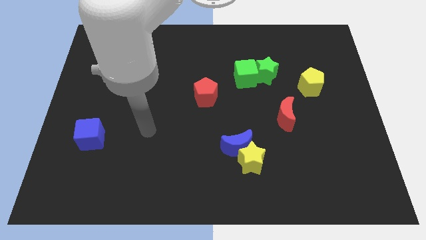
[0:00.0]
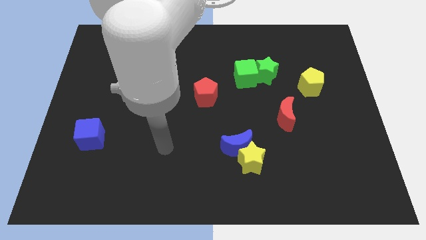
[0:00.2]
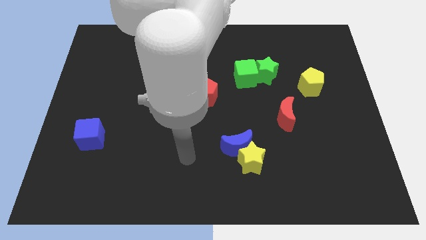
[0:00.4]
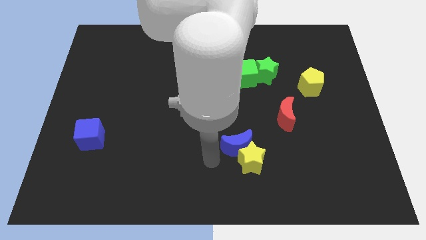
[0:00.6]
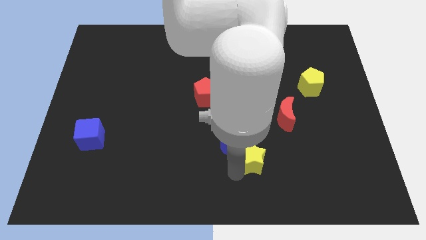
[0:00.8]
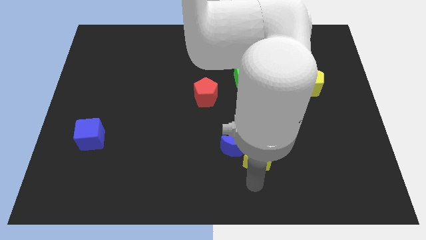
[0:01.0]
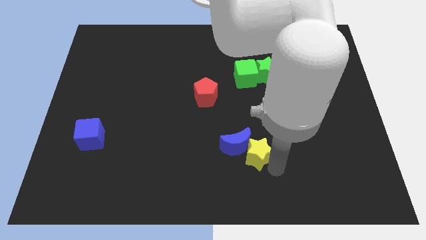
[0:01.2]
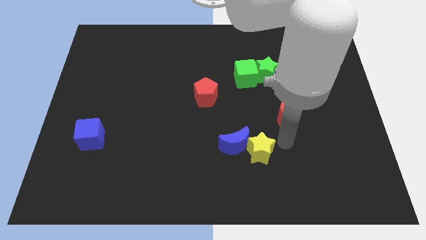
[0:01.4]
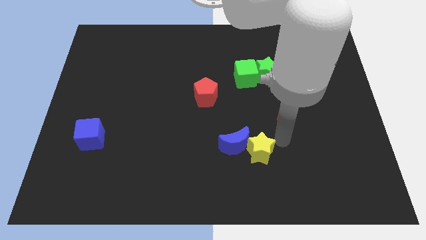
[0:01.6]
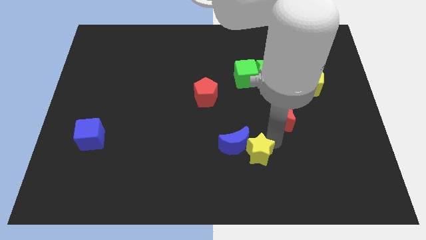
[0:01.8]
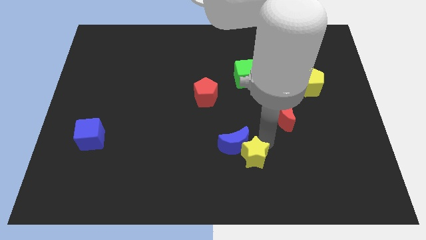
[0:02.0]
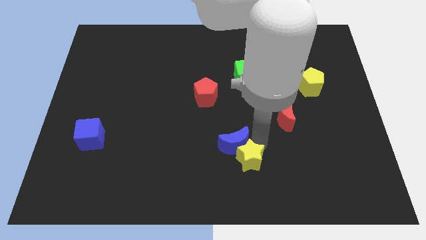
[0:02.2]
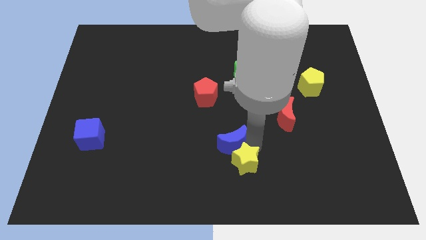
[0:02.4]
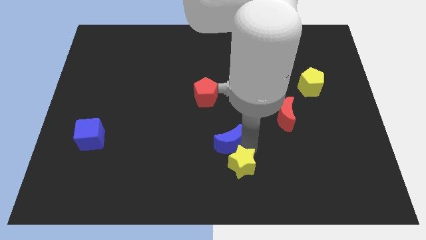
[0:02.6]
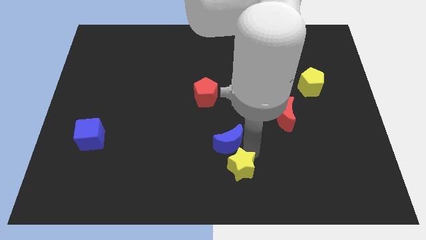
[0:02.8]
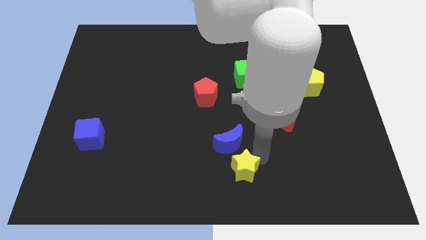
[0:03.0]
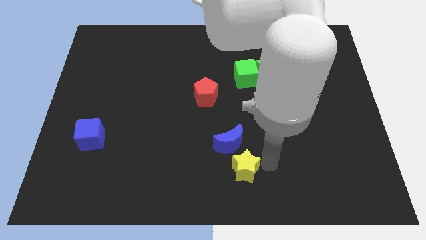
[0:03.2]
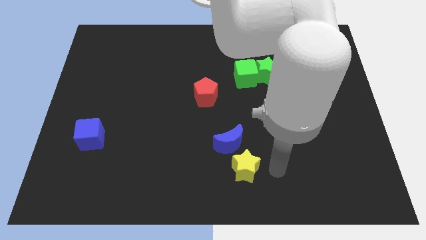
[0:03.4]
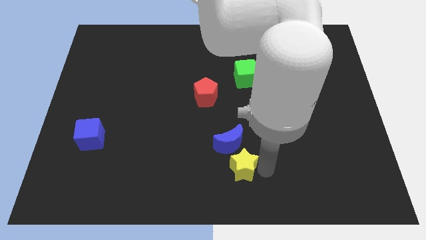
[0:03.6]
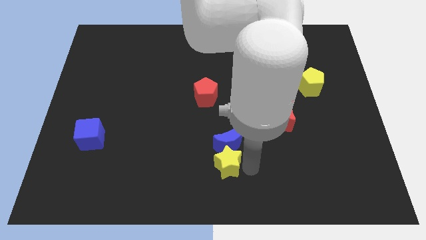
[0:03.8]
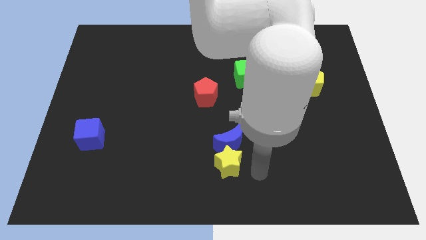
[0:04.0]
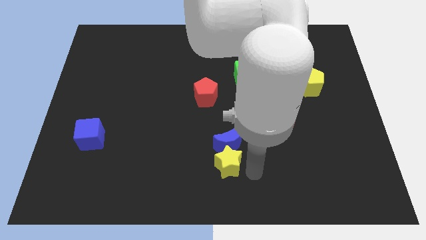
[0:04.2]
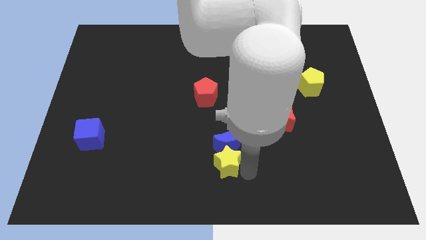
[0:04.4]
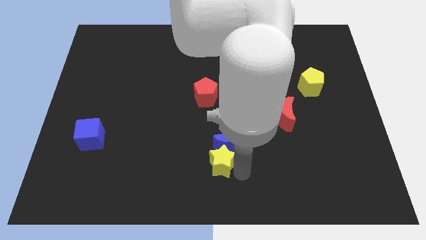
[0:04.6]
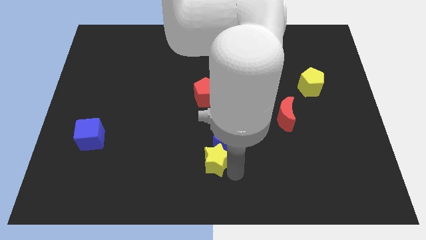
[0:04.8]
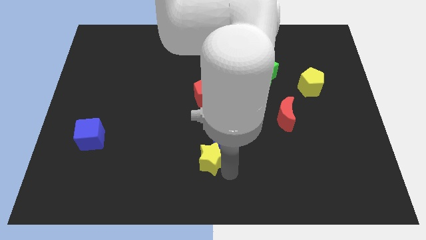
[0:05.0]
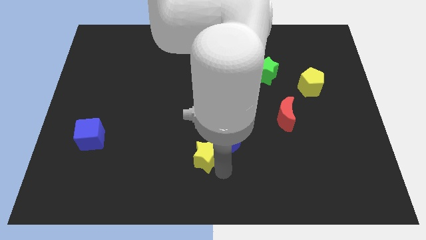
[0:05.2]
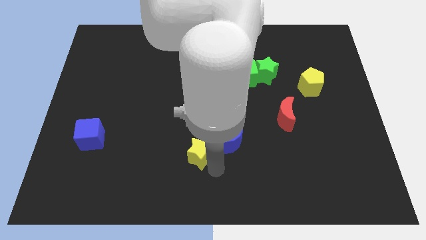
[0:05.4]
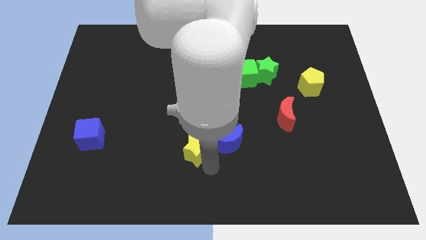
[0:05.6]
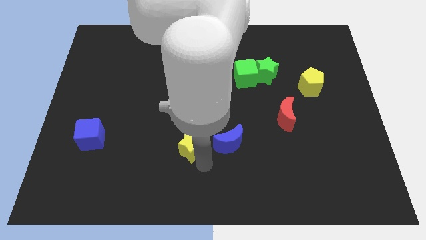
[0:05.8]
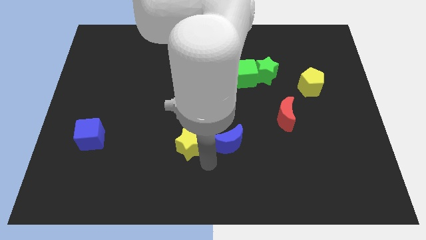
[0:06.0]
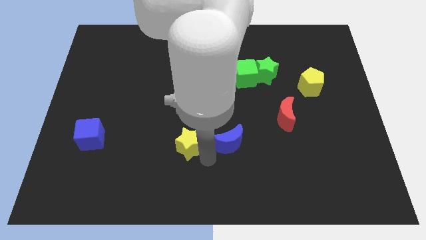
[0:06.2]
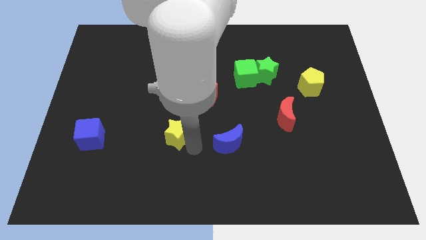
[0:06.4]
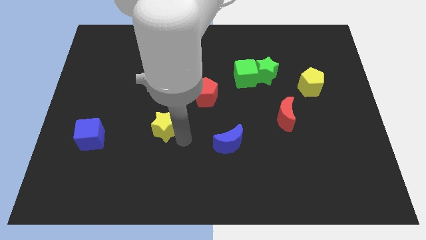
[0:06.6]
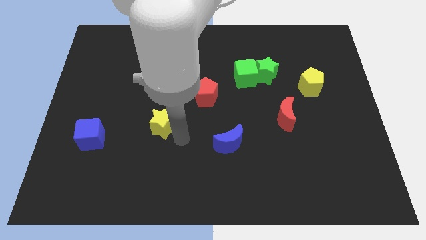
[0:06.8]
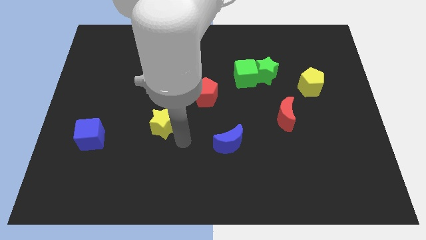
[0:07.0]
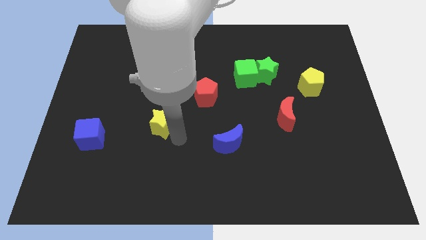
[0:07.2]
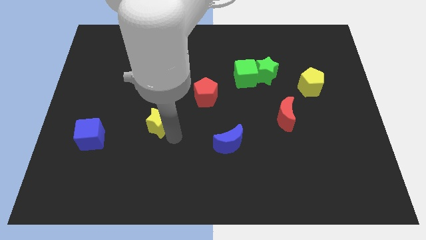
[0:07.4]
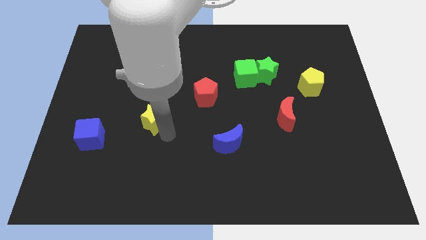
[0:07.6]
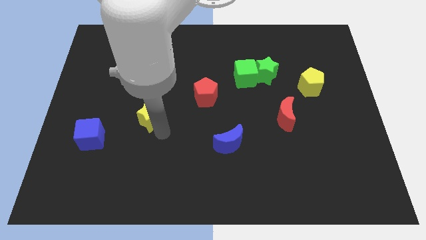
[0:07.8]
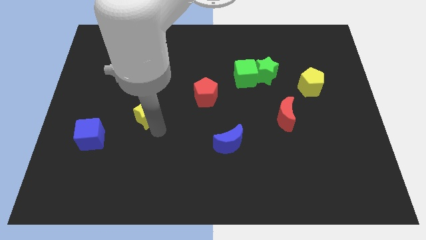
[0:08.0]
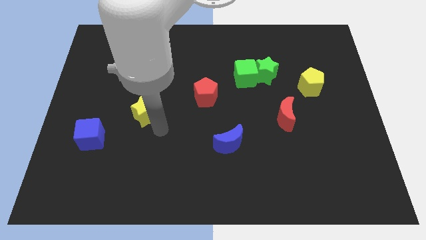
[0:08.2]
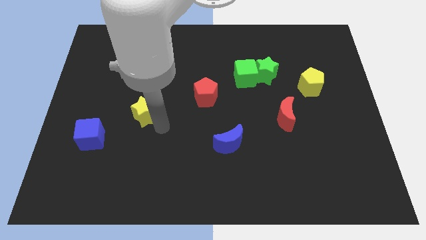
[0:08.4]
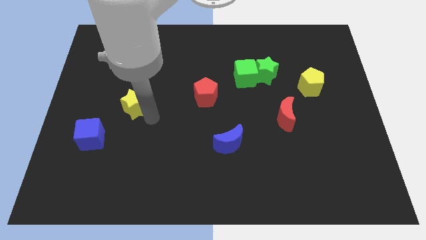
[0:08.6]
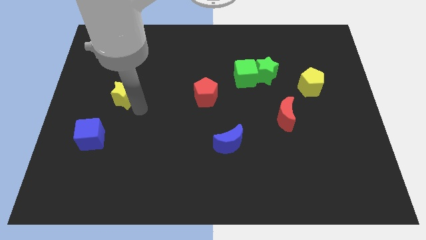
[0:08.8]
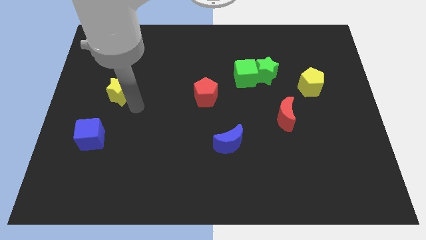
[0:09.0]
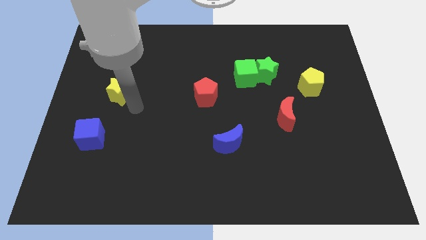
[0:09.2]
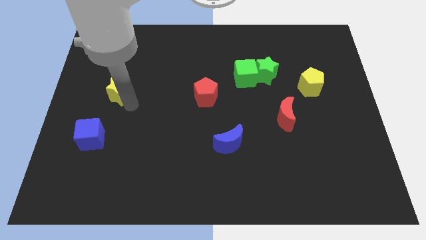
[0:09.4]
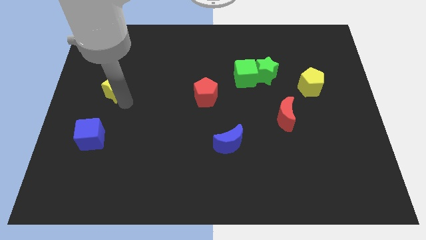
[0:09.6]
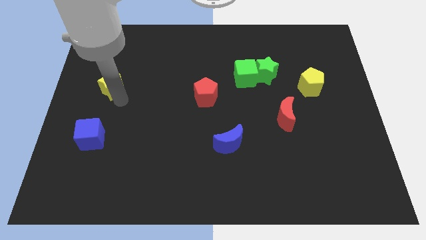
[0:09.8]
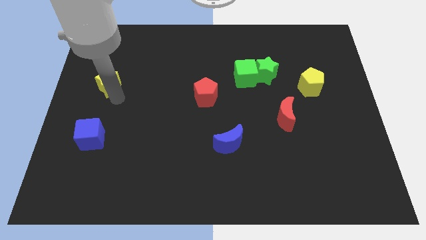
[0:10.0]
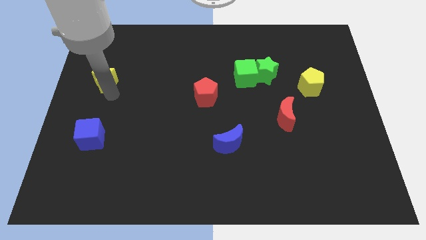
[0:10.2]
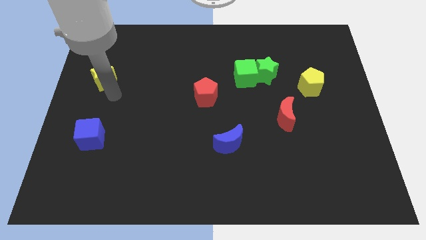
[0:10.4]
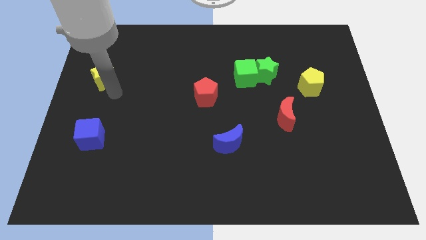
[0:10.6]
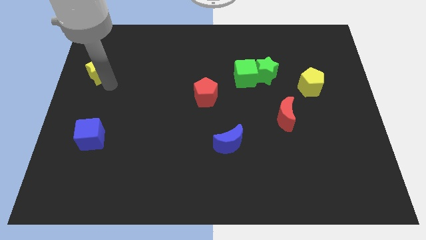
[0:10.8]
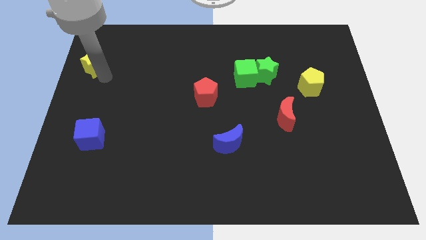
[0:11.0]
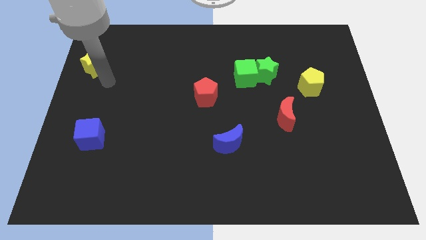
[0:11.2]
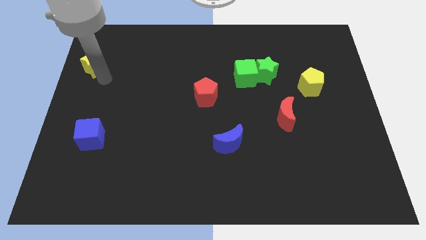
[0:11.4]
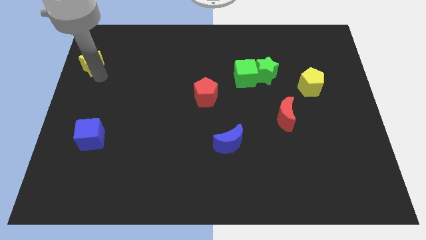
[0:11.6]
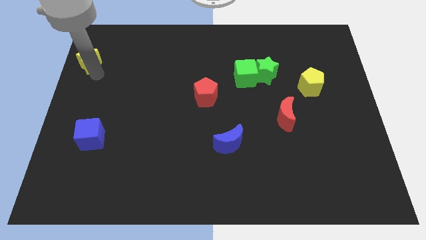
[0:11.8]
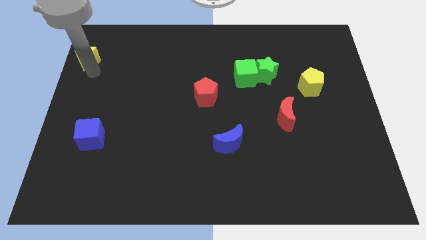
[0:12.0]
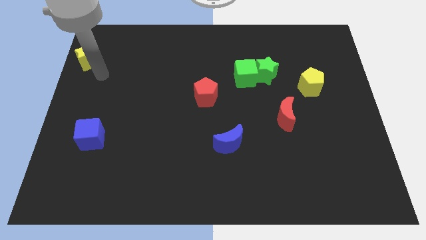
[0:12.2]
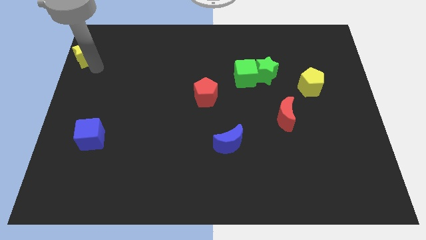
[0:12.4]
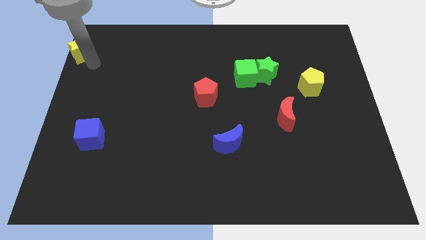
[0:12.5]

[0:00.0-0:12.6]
put the yellow star to the top left
